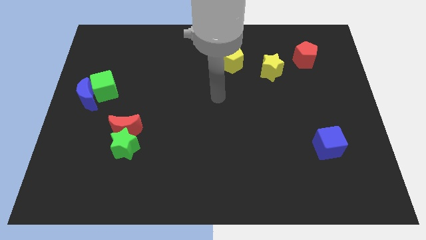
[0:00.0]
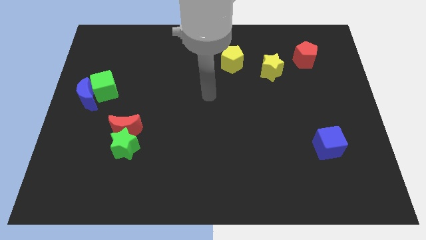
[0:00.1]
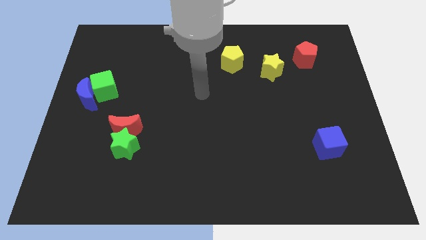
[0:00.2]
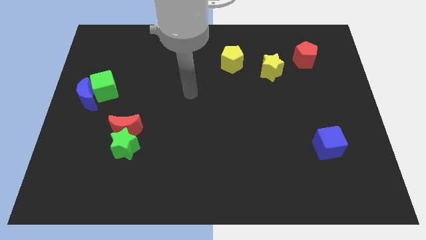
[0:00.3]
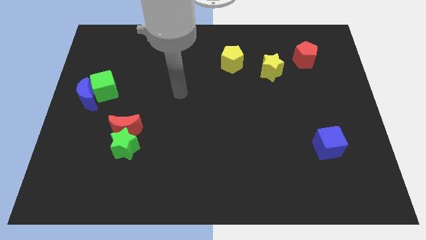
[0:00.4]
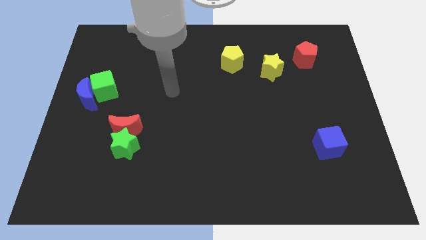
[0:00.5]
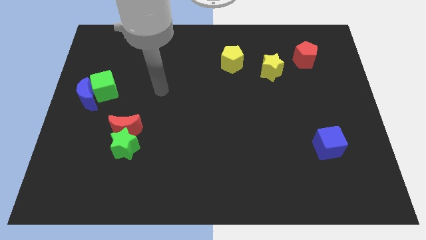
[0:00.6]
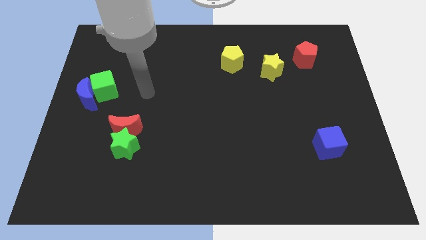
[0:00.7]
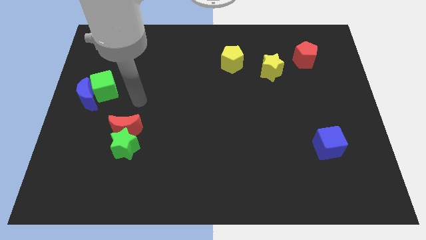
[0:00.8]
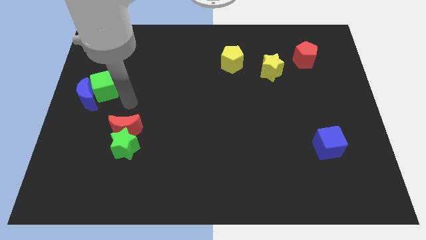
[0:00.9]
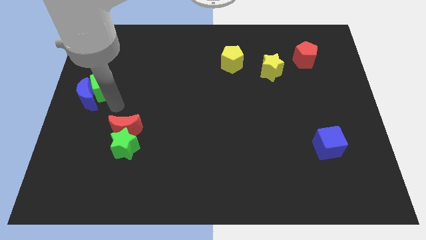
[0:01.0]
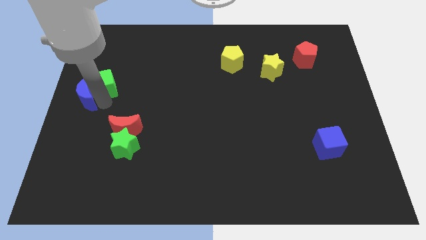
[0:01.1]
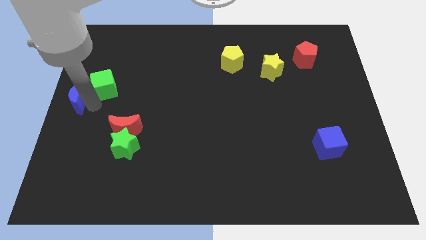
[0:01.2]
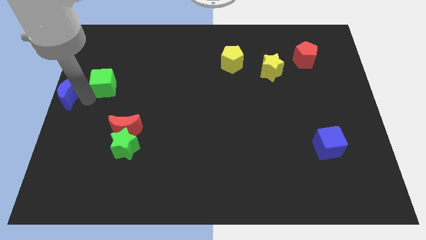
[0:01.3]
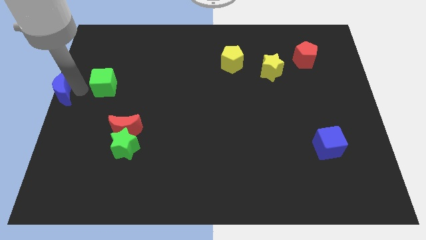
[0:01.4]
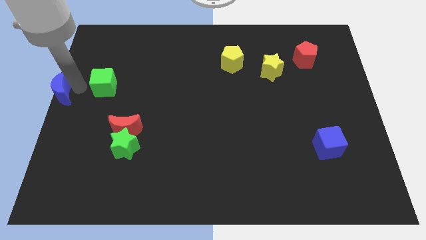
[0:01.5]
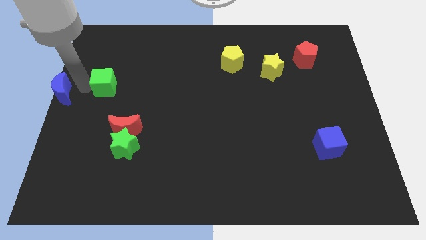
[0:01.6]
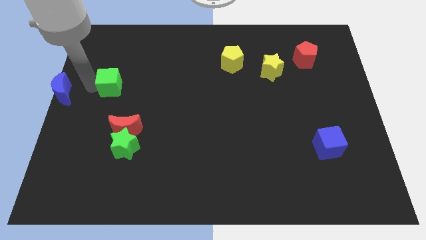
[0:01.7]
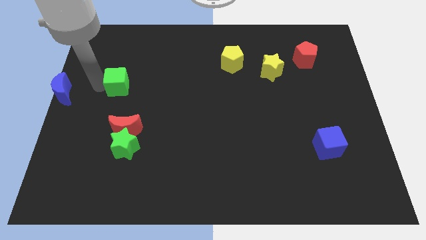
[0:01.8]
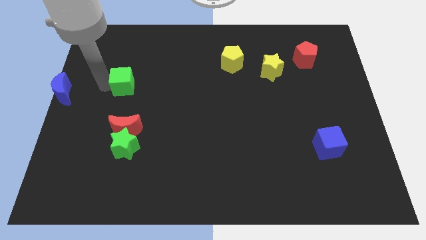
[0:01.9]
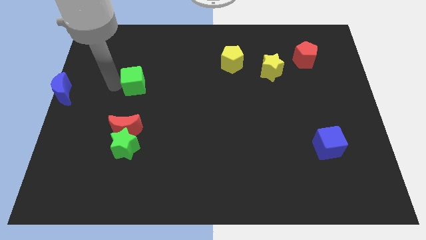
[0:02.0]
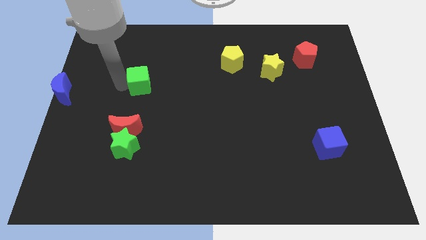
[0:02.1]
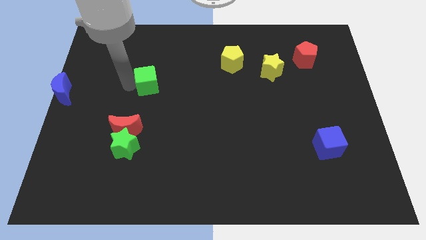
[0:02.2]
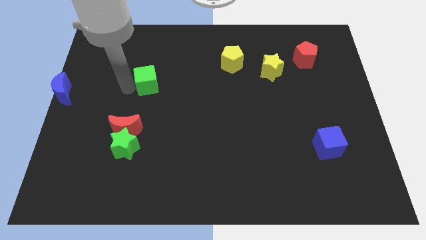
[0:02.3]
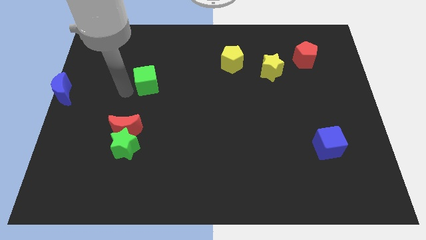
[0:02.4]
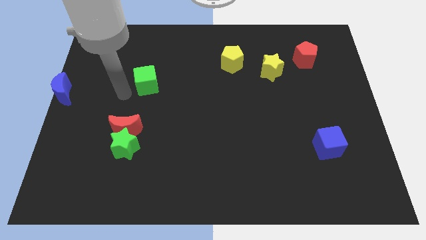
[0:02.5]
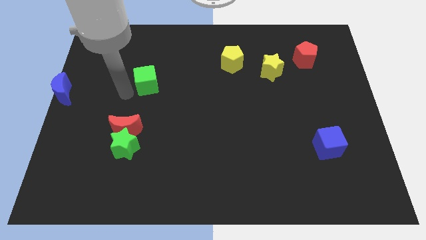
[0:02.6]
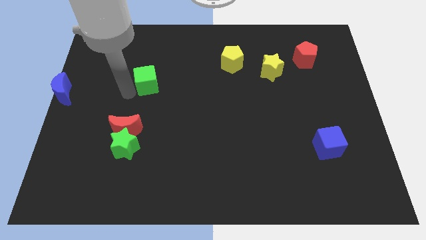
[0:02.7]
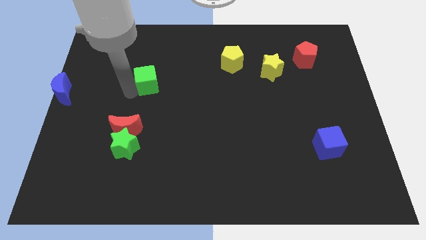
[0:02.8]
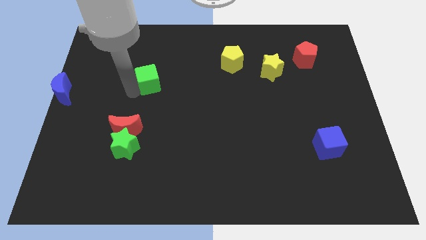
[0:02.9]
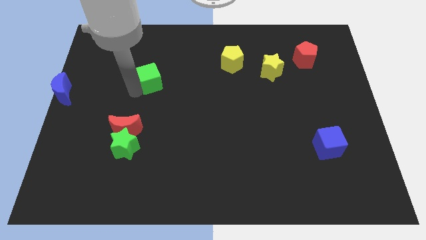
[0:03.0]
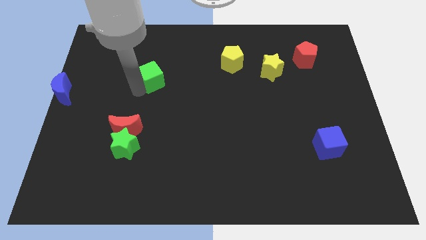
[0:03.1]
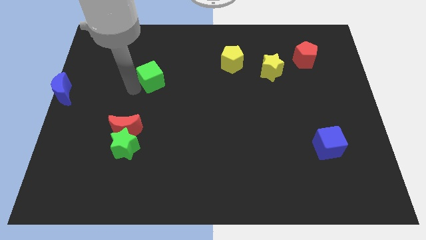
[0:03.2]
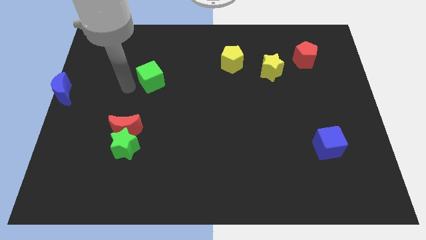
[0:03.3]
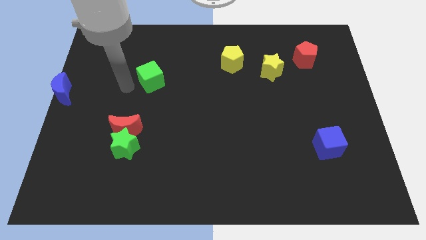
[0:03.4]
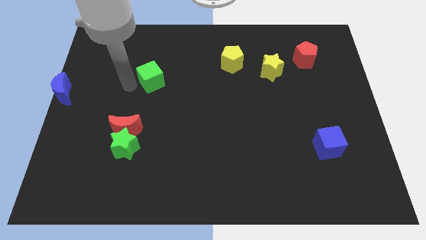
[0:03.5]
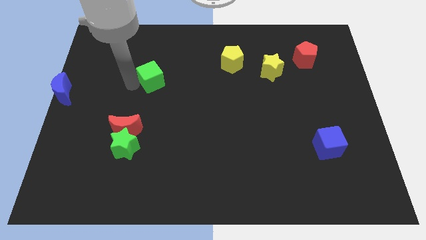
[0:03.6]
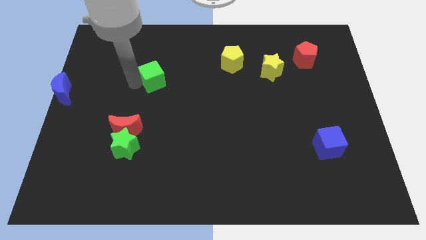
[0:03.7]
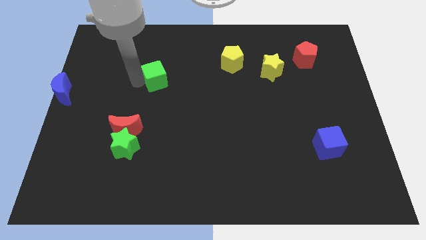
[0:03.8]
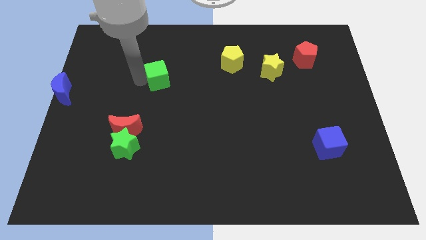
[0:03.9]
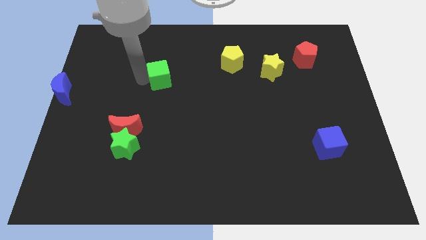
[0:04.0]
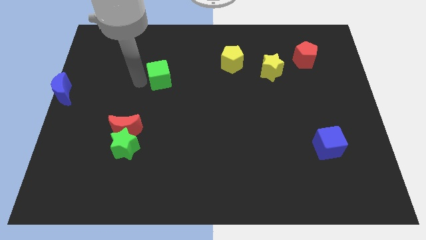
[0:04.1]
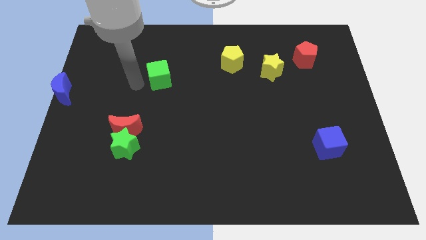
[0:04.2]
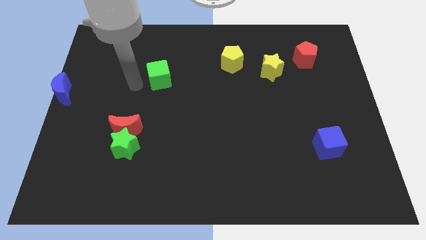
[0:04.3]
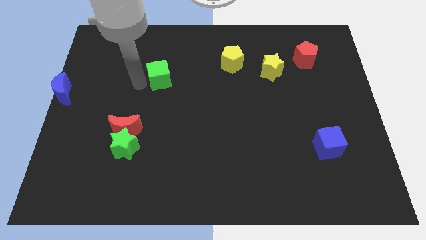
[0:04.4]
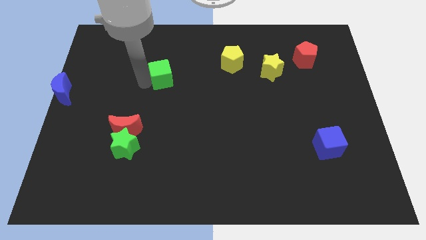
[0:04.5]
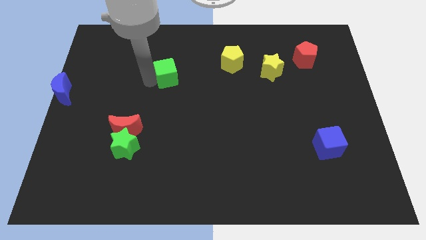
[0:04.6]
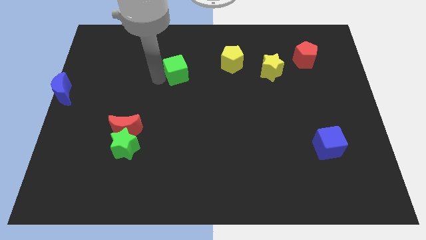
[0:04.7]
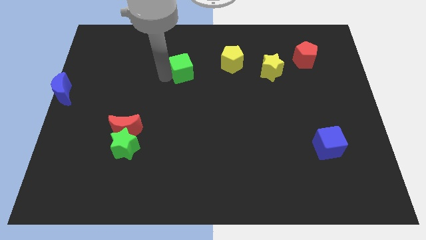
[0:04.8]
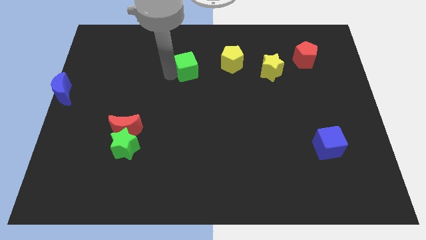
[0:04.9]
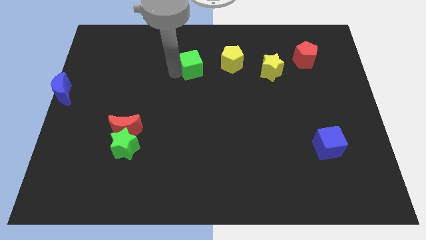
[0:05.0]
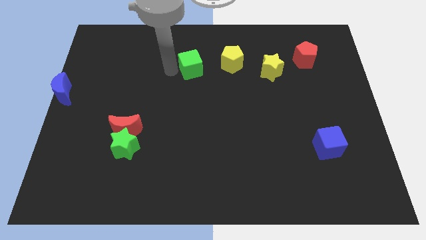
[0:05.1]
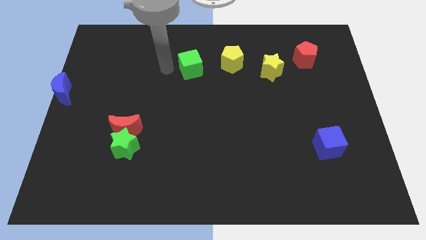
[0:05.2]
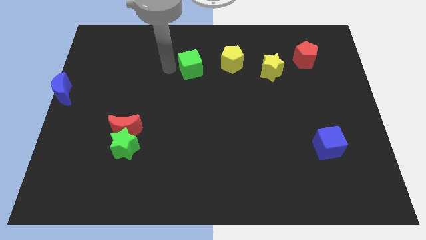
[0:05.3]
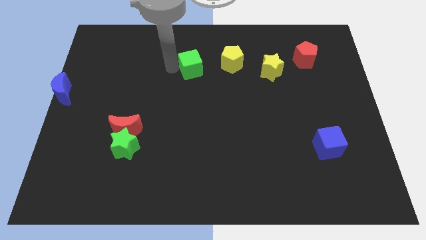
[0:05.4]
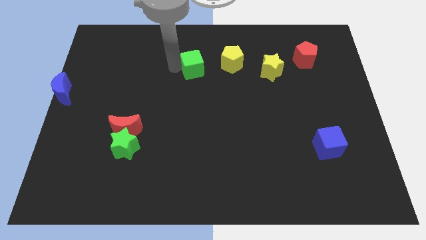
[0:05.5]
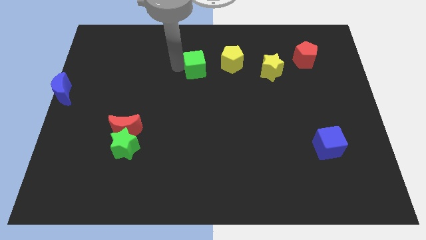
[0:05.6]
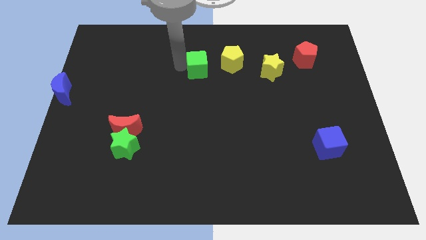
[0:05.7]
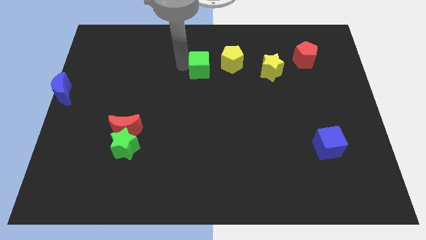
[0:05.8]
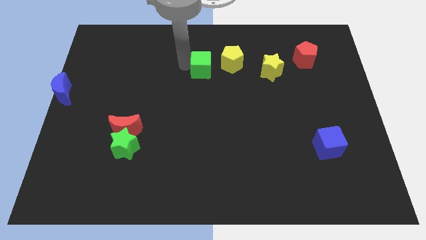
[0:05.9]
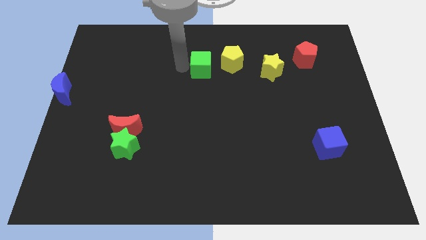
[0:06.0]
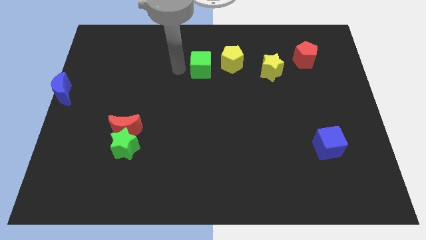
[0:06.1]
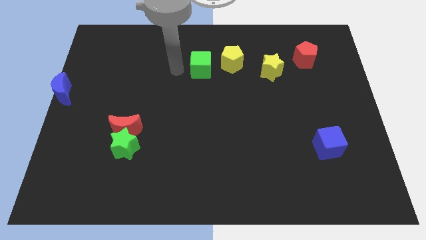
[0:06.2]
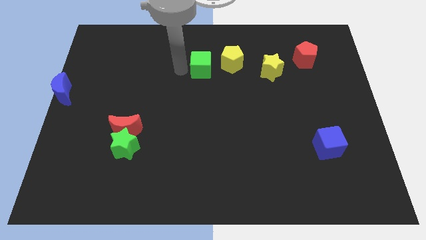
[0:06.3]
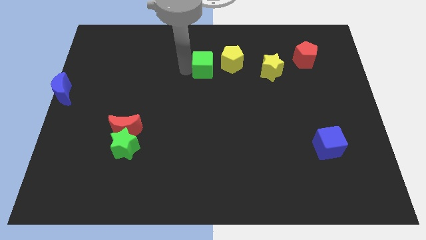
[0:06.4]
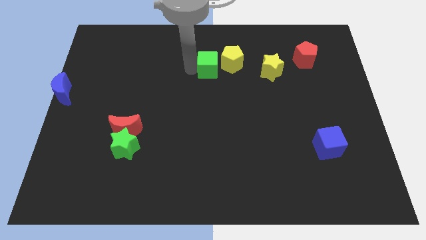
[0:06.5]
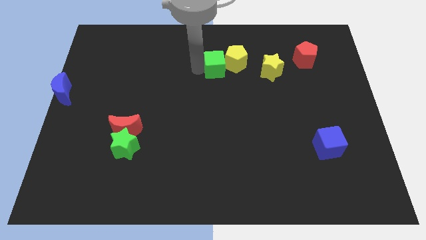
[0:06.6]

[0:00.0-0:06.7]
put the green cube close to the yellow pentagon
